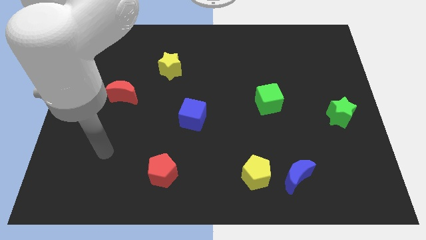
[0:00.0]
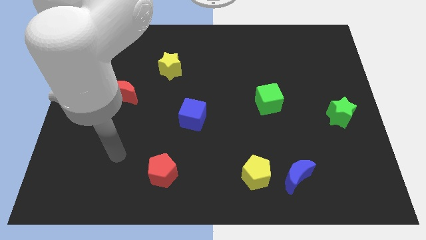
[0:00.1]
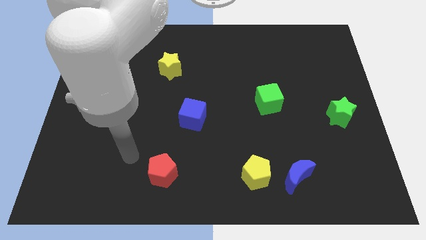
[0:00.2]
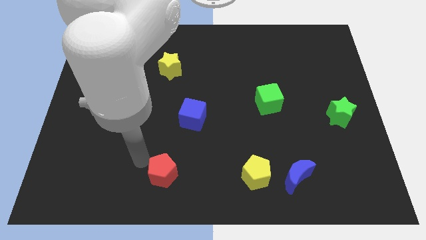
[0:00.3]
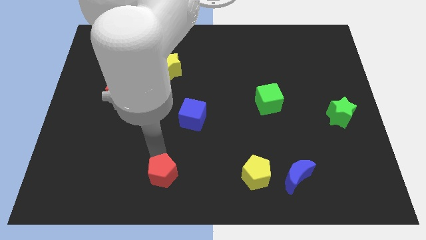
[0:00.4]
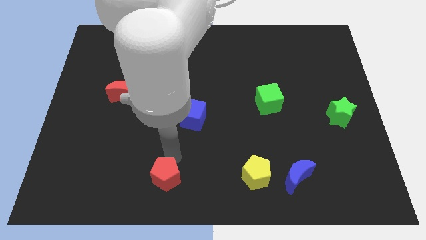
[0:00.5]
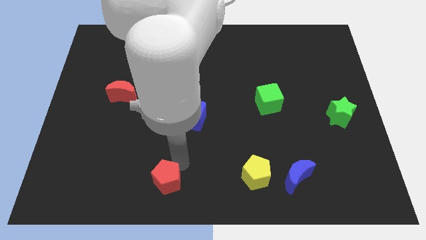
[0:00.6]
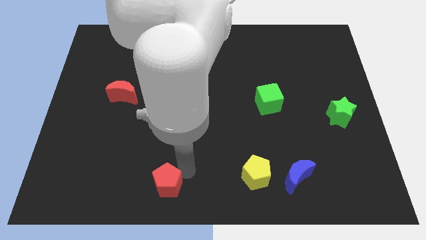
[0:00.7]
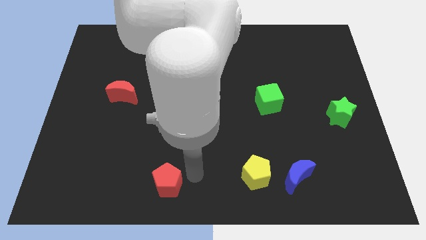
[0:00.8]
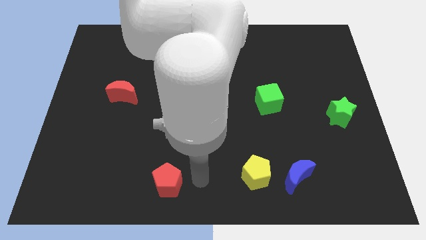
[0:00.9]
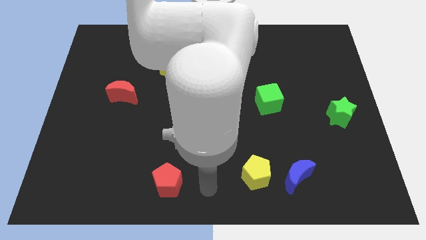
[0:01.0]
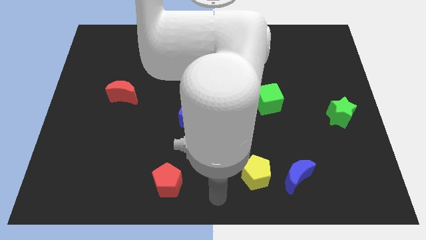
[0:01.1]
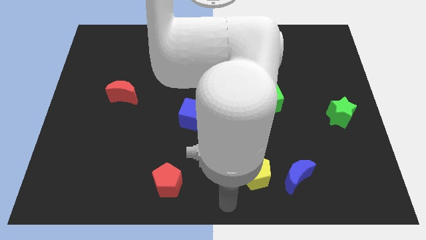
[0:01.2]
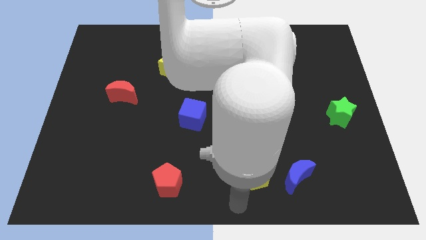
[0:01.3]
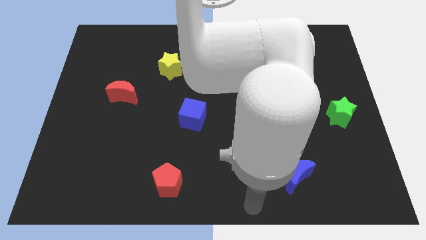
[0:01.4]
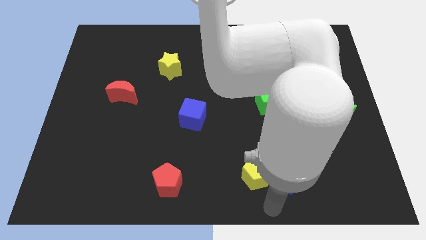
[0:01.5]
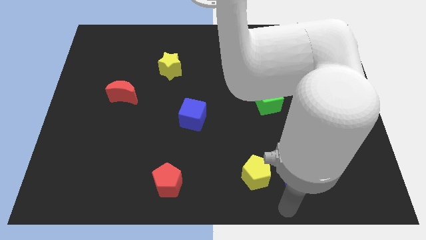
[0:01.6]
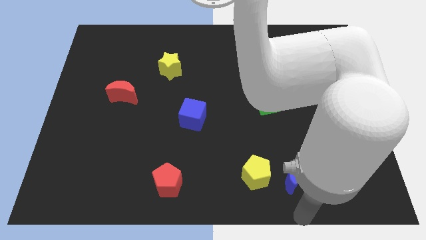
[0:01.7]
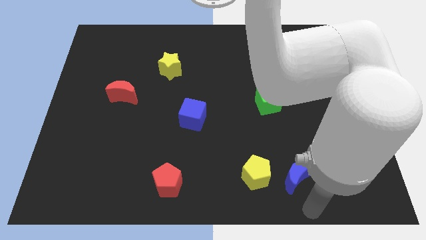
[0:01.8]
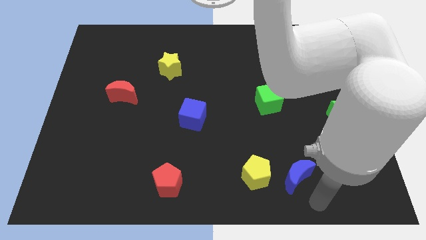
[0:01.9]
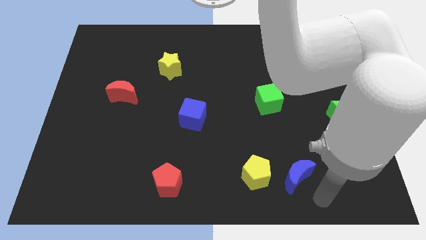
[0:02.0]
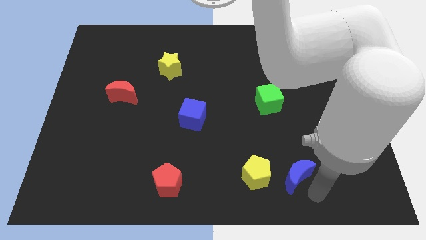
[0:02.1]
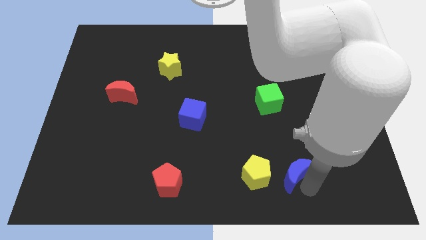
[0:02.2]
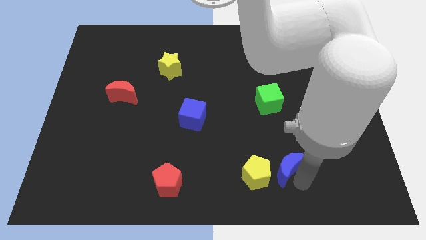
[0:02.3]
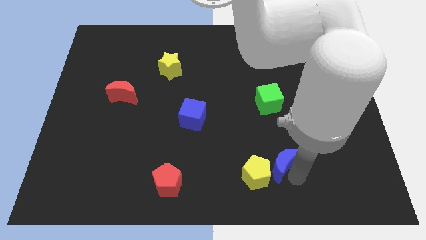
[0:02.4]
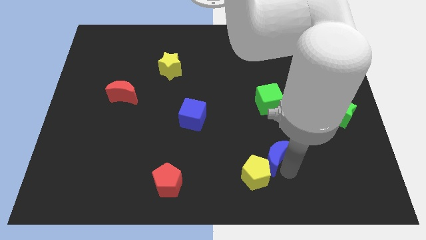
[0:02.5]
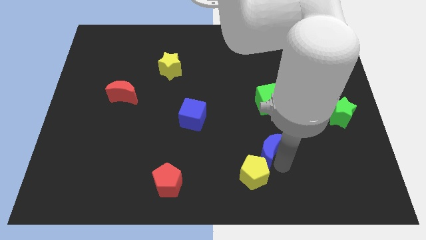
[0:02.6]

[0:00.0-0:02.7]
slightly move the blue moon diagonally upwards and to the left

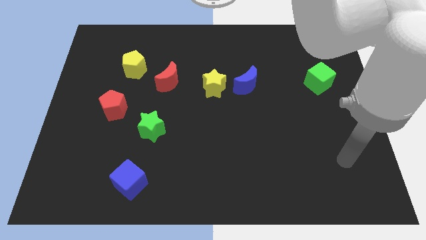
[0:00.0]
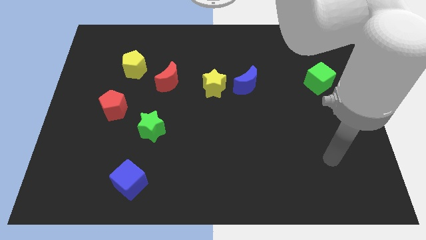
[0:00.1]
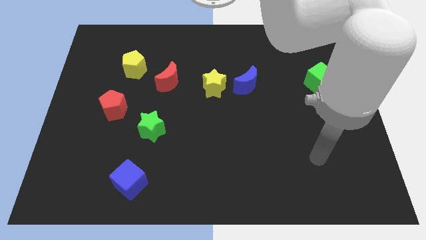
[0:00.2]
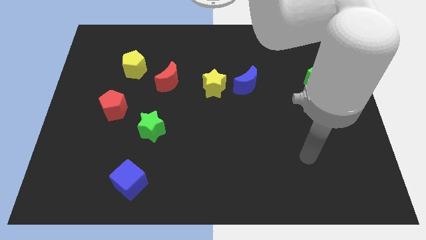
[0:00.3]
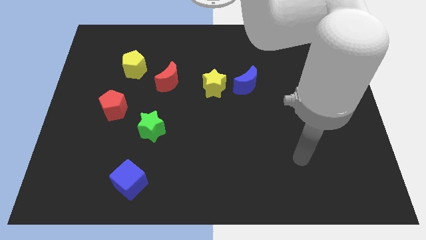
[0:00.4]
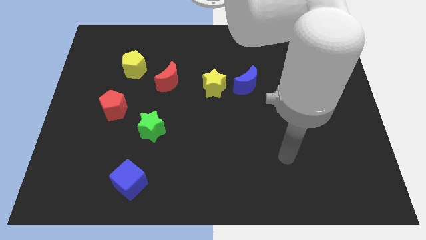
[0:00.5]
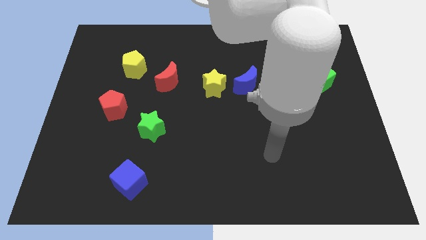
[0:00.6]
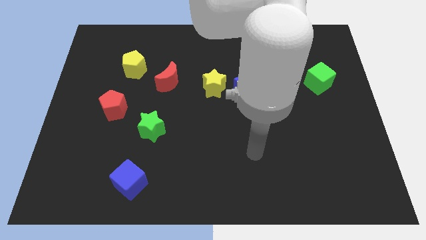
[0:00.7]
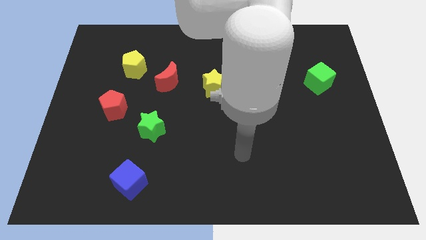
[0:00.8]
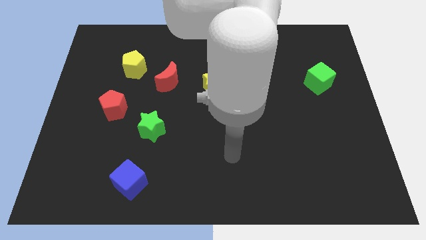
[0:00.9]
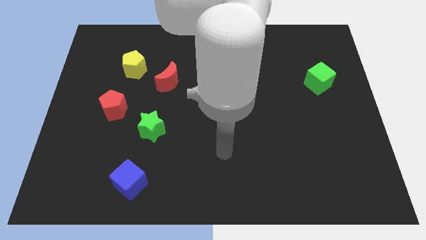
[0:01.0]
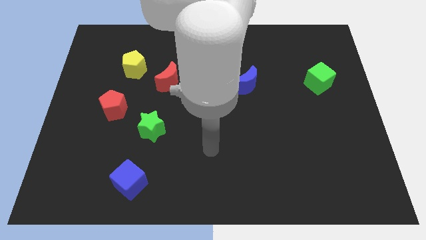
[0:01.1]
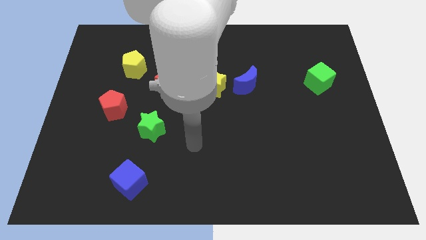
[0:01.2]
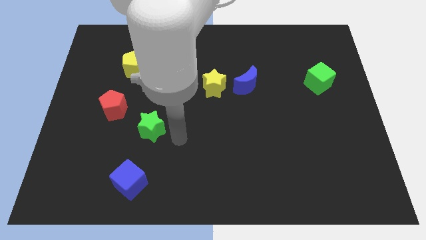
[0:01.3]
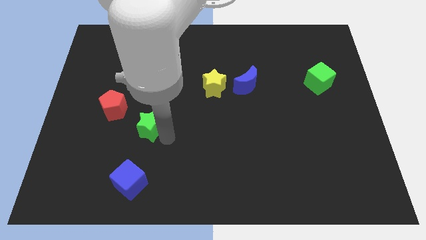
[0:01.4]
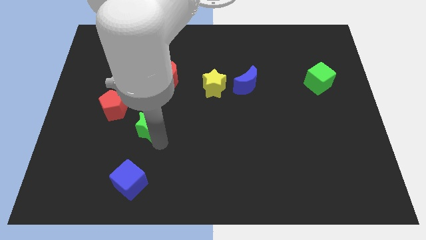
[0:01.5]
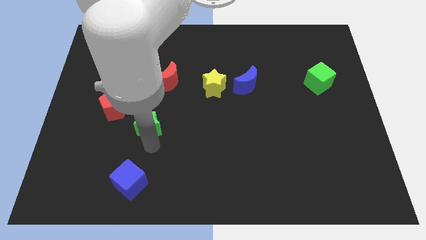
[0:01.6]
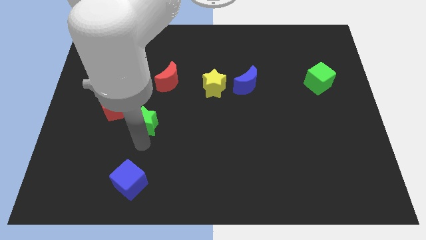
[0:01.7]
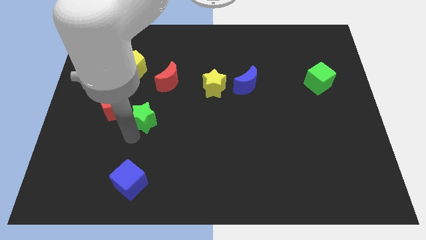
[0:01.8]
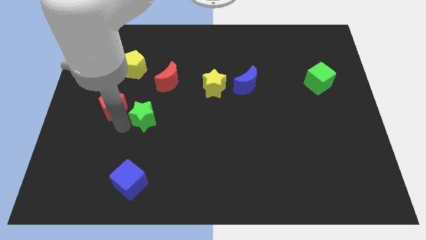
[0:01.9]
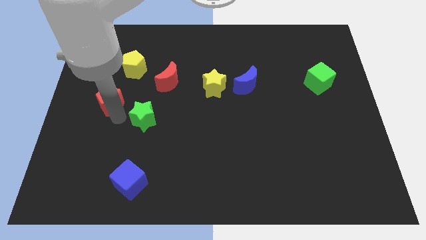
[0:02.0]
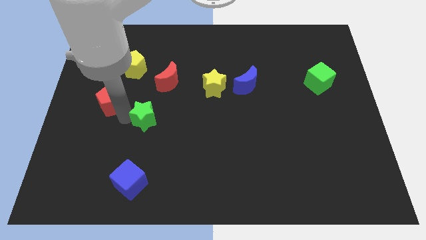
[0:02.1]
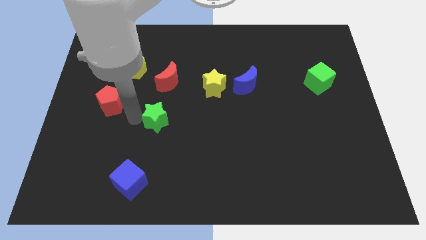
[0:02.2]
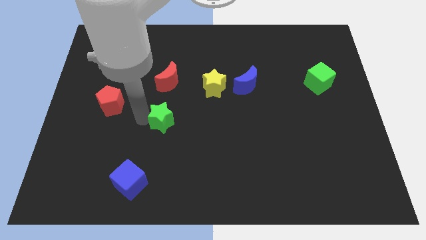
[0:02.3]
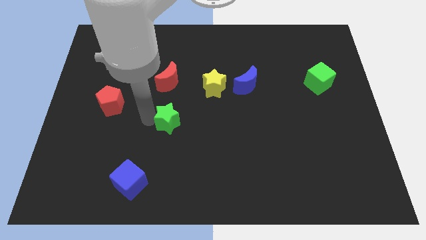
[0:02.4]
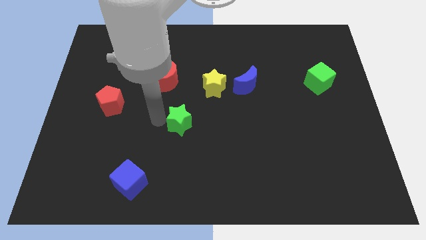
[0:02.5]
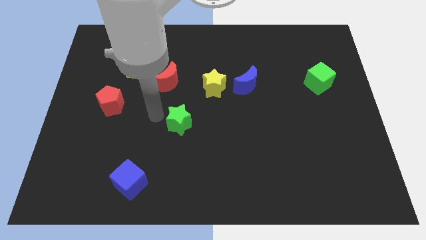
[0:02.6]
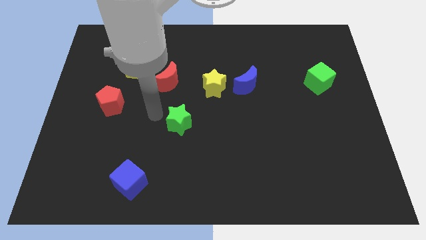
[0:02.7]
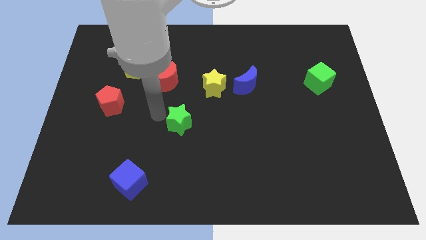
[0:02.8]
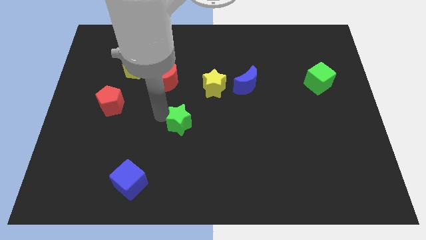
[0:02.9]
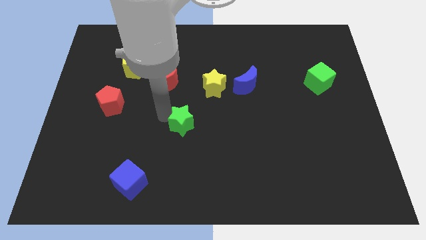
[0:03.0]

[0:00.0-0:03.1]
slightly slide the green star right

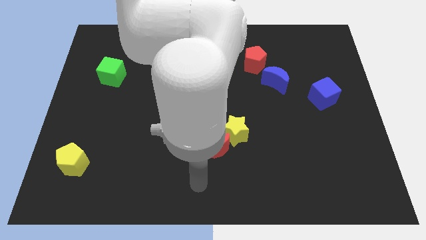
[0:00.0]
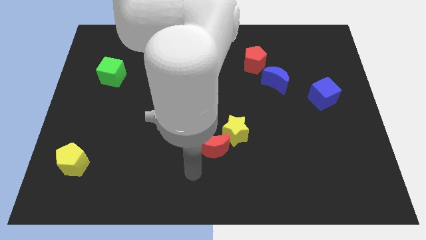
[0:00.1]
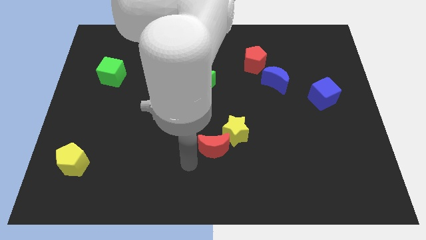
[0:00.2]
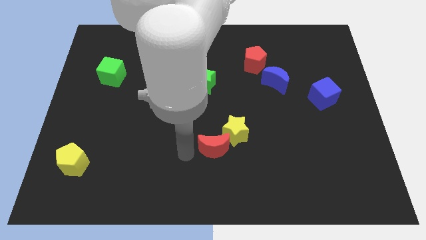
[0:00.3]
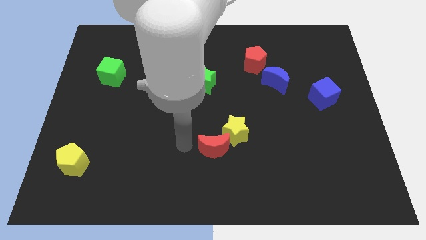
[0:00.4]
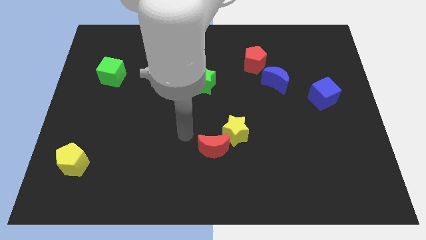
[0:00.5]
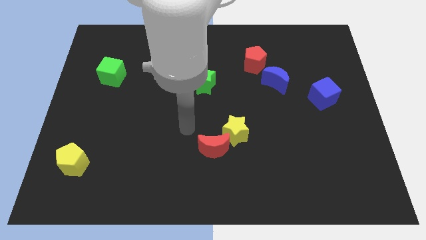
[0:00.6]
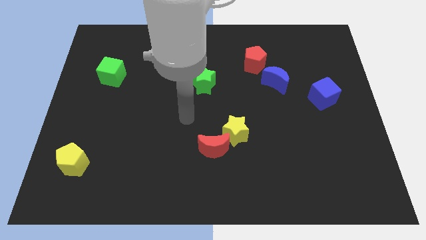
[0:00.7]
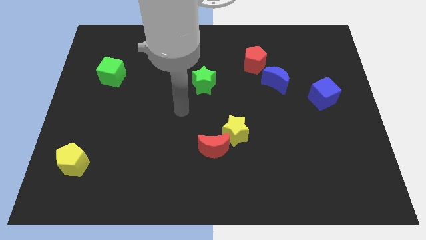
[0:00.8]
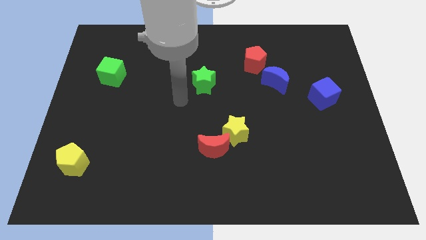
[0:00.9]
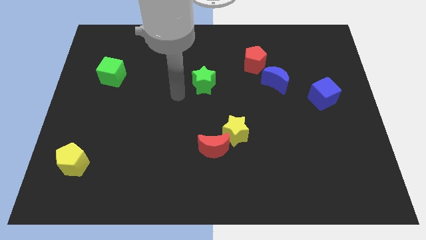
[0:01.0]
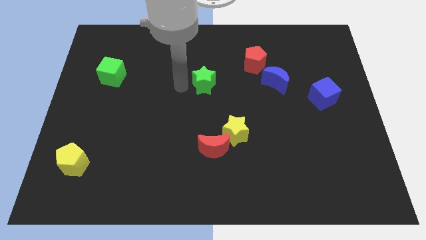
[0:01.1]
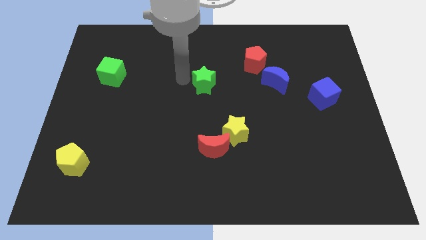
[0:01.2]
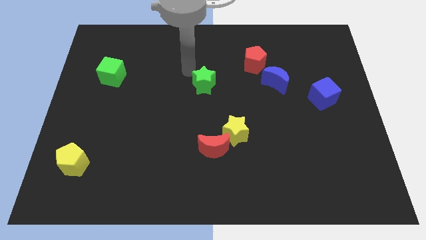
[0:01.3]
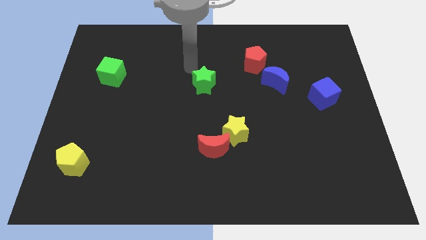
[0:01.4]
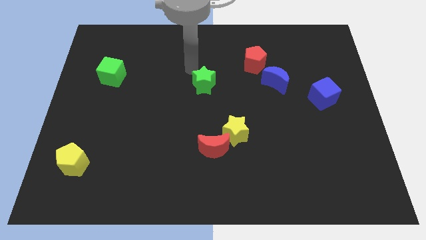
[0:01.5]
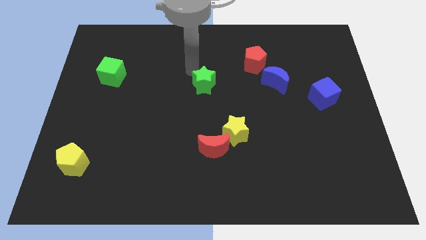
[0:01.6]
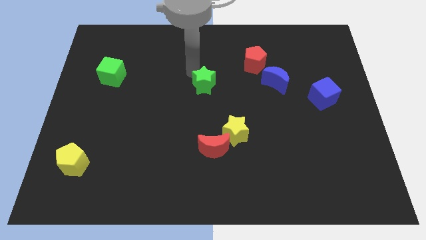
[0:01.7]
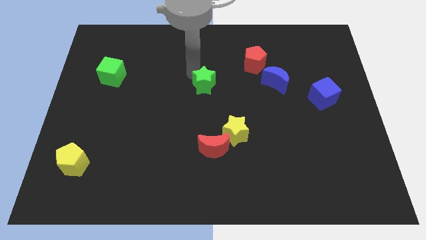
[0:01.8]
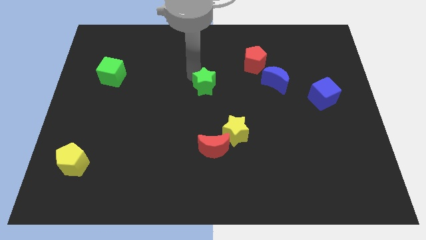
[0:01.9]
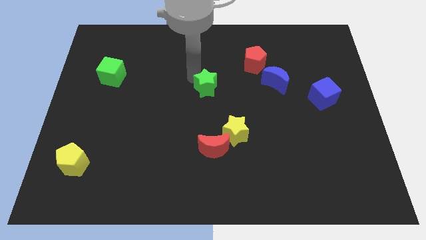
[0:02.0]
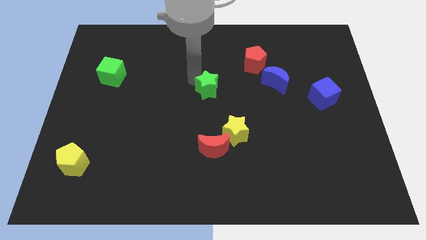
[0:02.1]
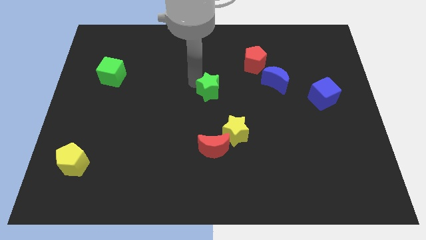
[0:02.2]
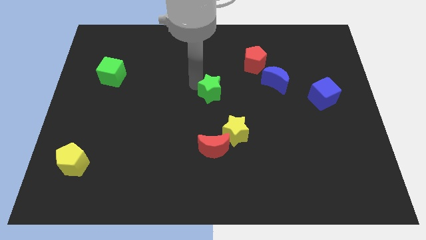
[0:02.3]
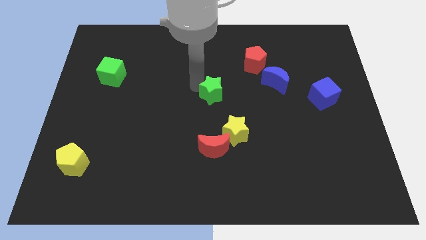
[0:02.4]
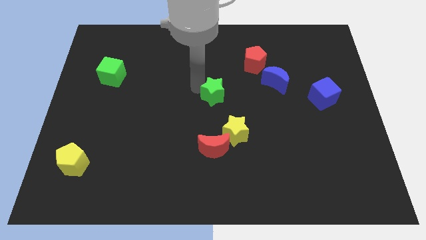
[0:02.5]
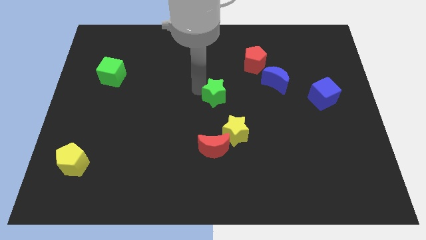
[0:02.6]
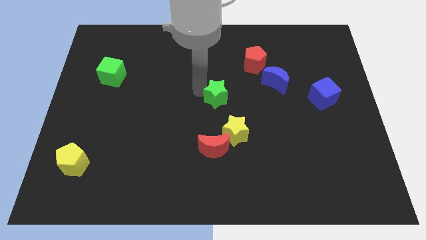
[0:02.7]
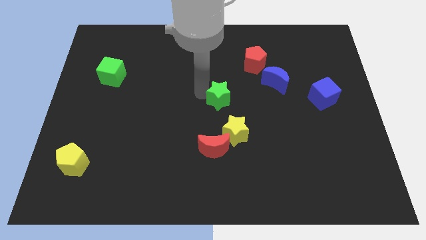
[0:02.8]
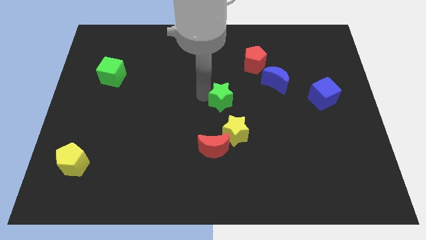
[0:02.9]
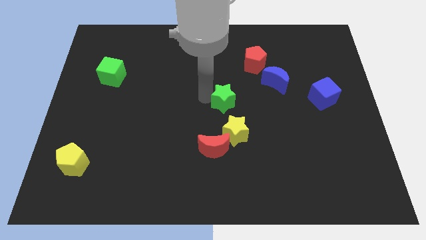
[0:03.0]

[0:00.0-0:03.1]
slightly move the green star diagonally downwards and right
